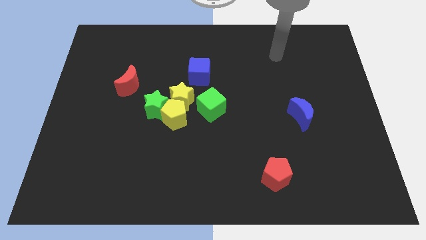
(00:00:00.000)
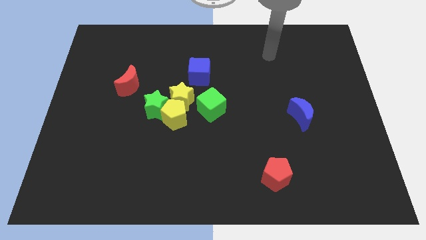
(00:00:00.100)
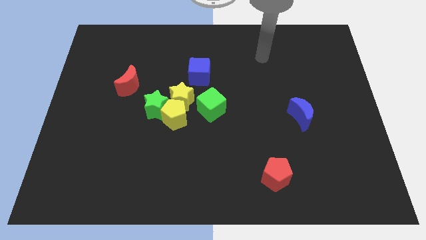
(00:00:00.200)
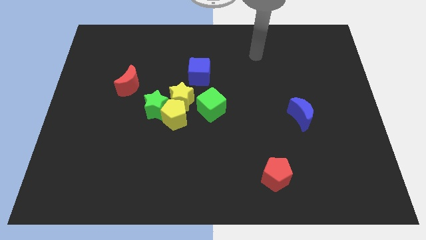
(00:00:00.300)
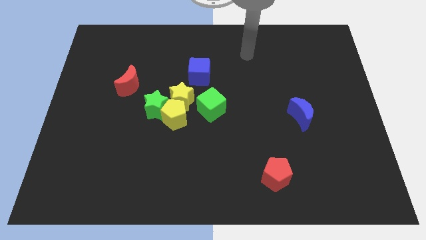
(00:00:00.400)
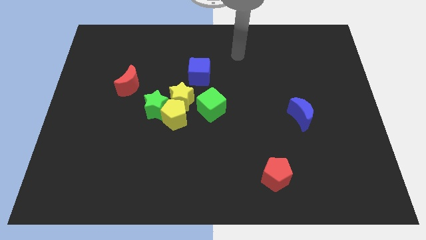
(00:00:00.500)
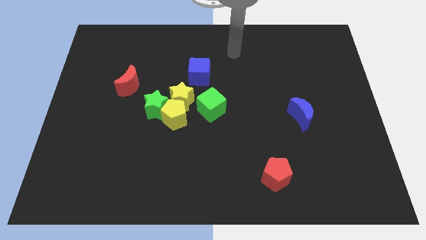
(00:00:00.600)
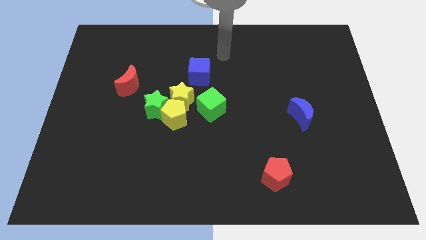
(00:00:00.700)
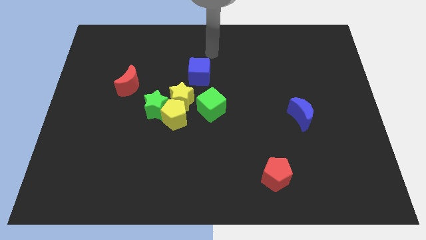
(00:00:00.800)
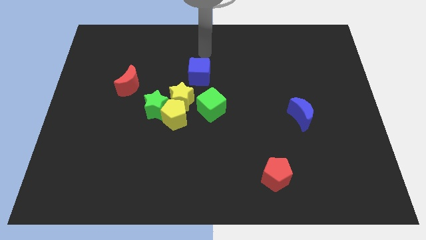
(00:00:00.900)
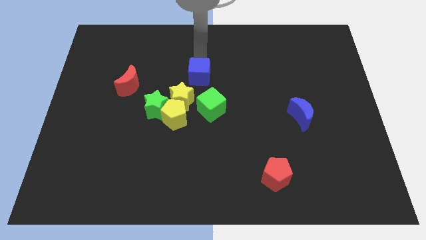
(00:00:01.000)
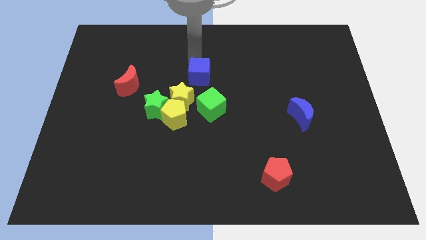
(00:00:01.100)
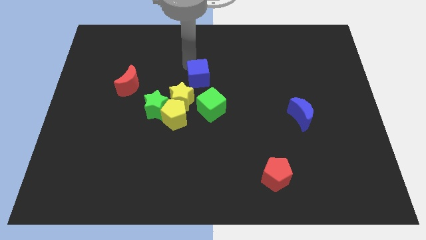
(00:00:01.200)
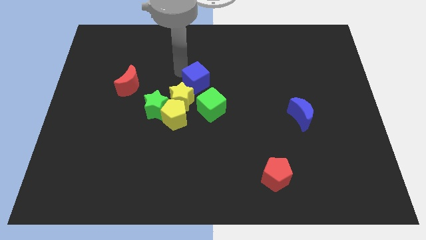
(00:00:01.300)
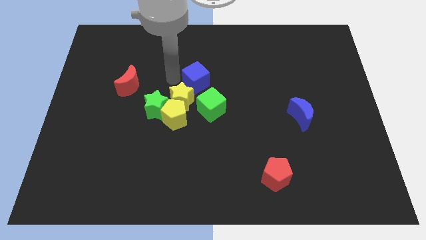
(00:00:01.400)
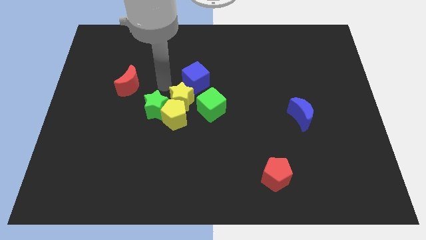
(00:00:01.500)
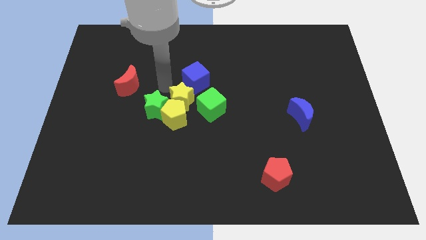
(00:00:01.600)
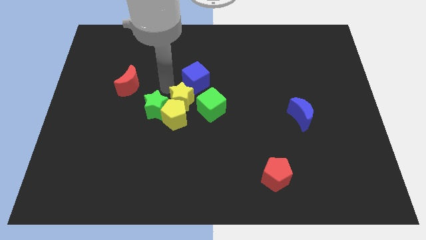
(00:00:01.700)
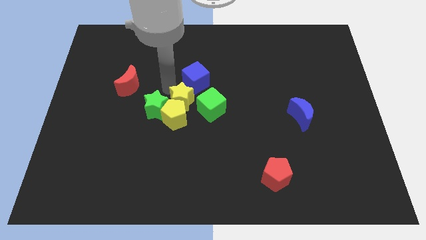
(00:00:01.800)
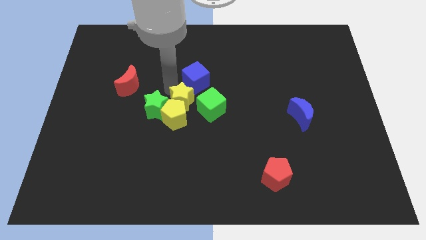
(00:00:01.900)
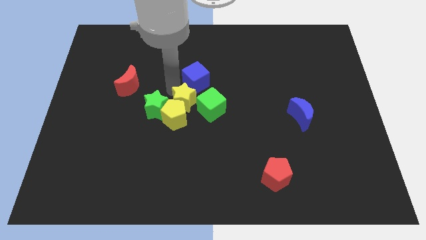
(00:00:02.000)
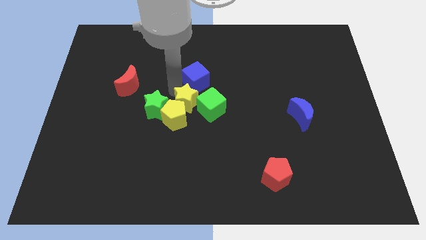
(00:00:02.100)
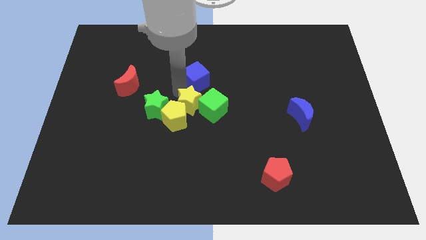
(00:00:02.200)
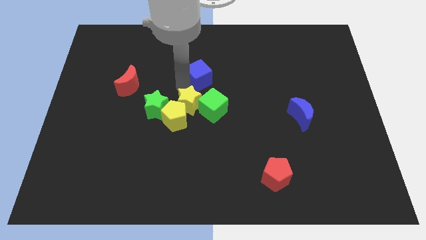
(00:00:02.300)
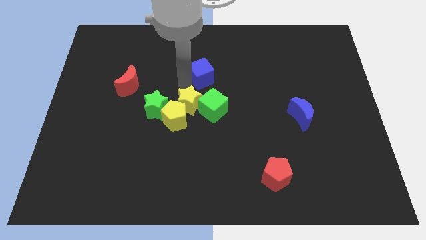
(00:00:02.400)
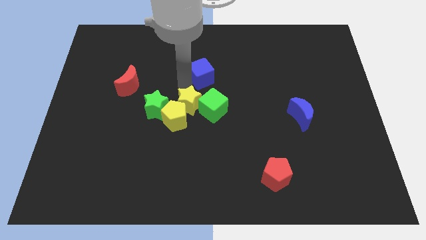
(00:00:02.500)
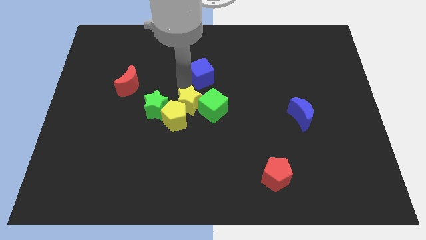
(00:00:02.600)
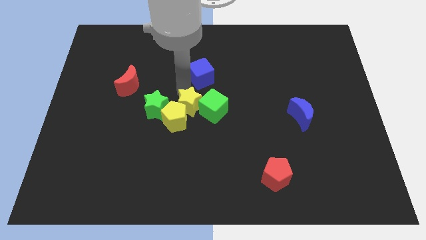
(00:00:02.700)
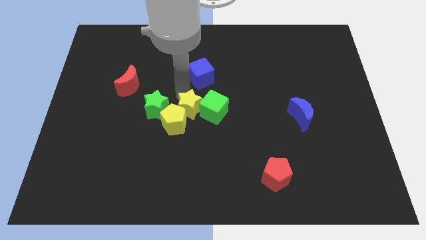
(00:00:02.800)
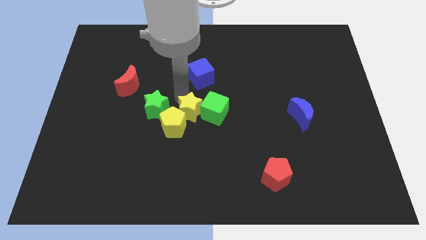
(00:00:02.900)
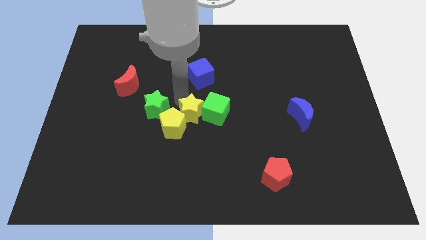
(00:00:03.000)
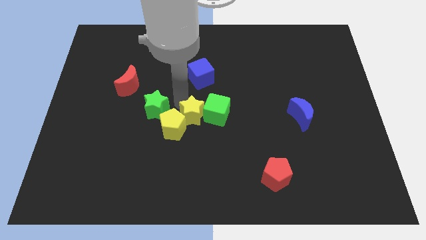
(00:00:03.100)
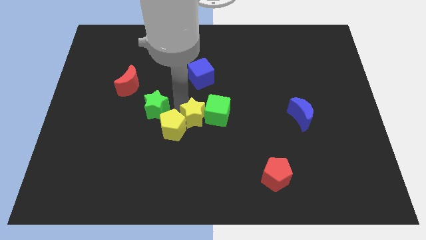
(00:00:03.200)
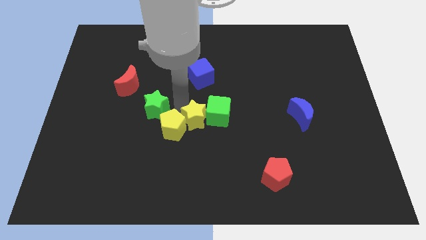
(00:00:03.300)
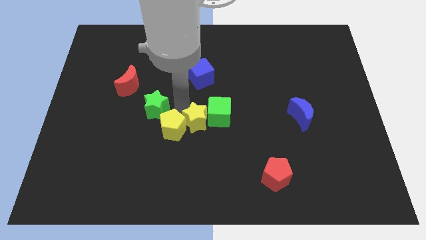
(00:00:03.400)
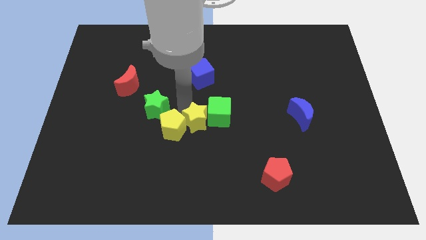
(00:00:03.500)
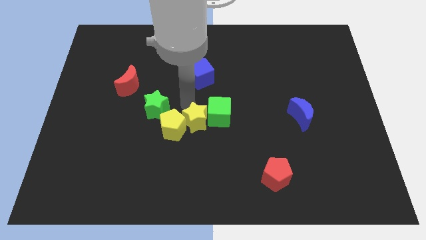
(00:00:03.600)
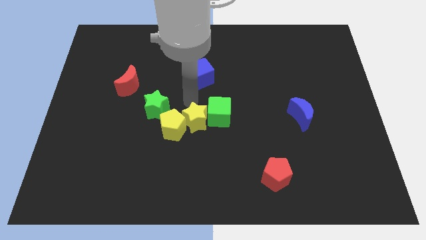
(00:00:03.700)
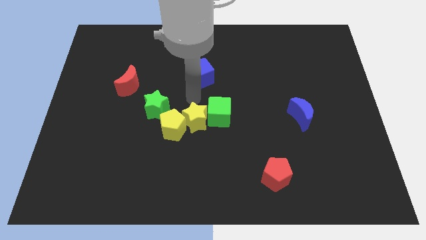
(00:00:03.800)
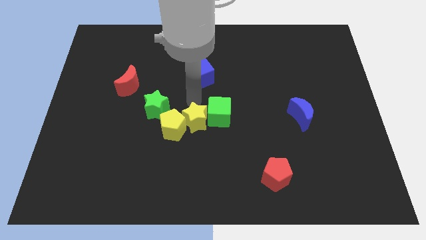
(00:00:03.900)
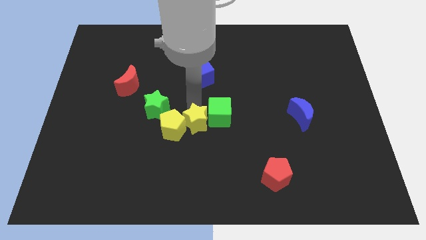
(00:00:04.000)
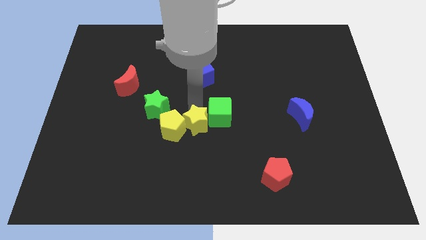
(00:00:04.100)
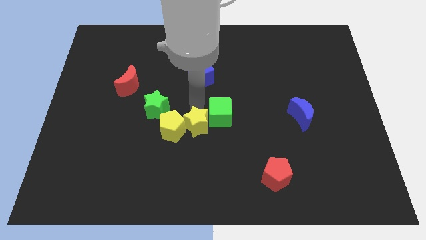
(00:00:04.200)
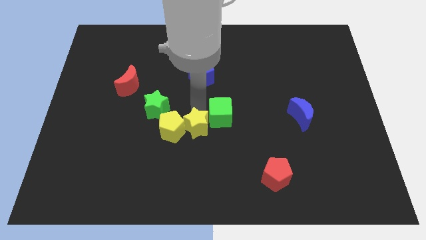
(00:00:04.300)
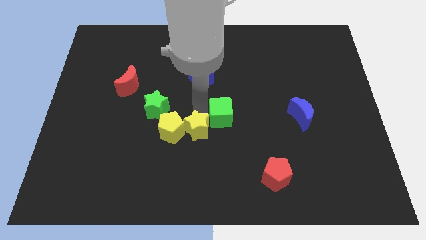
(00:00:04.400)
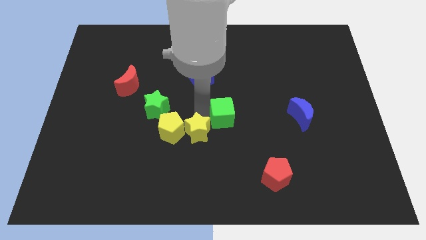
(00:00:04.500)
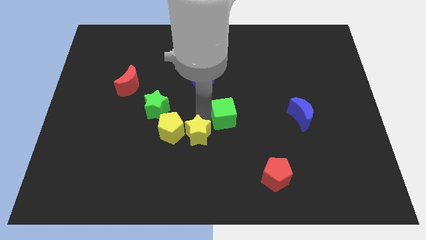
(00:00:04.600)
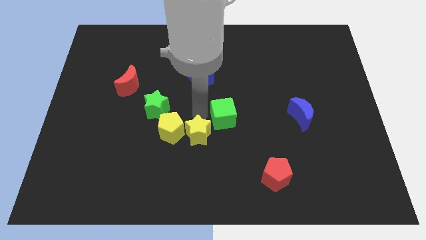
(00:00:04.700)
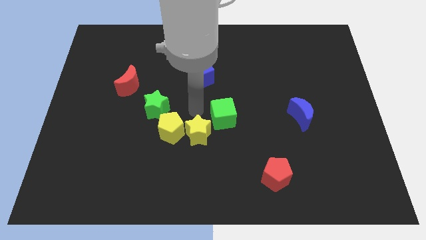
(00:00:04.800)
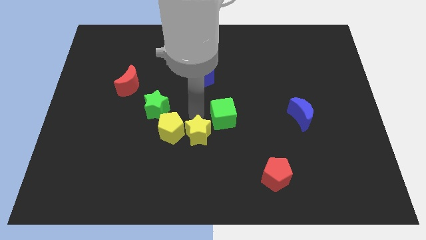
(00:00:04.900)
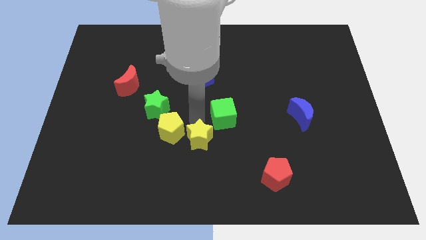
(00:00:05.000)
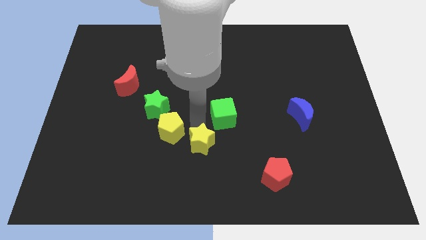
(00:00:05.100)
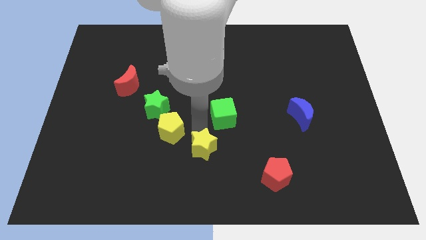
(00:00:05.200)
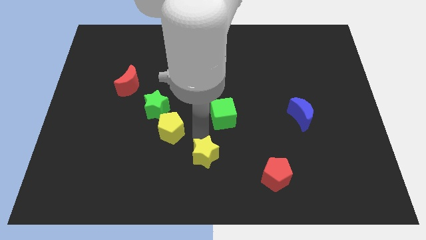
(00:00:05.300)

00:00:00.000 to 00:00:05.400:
slide the yellow star to the bottom

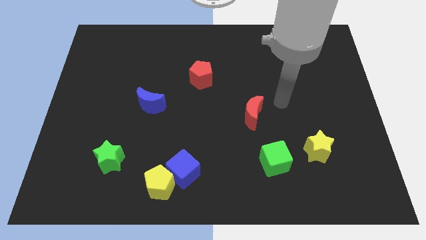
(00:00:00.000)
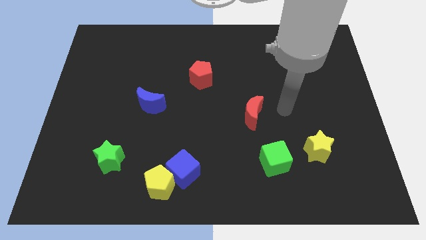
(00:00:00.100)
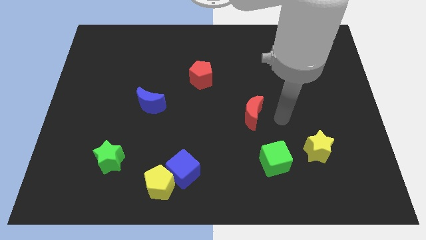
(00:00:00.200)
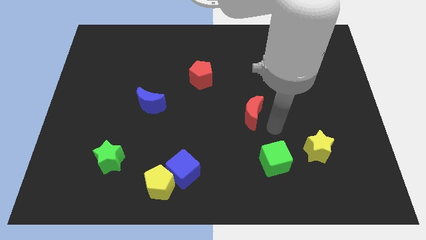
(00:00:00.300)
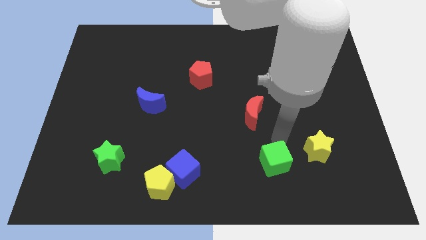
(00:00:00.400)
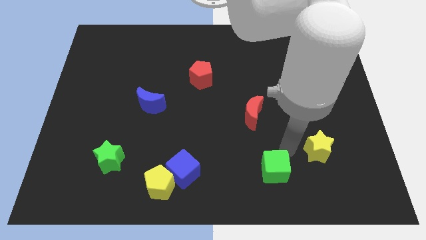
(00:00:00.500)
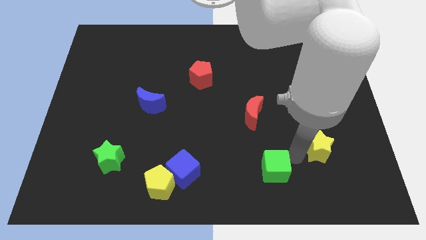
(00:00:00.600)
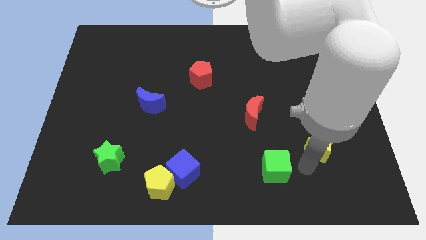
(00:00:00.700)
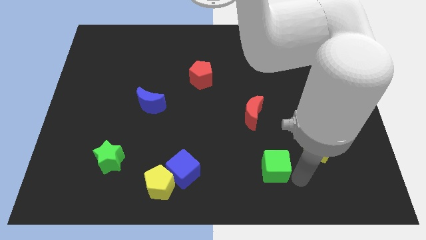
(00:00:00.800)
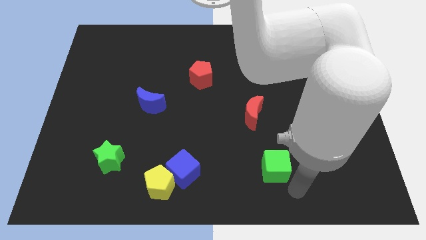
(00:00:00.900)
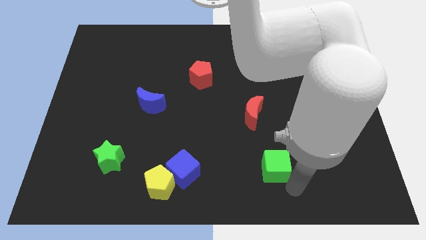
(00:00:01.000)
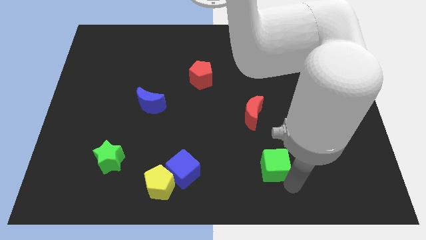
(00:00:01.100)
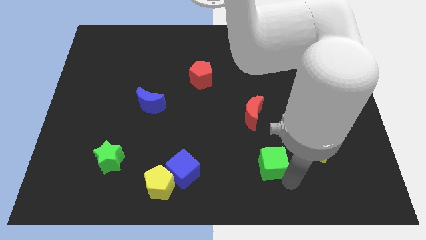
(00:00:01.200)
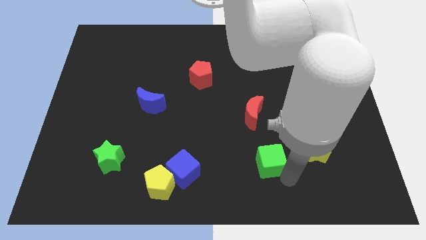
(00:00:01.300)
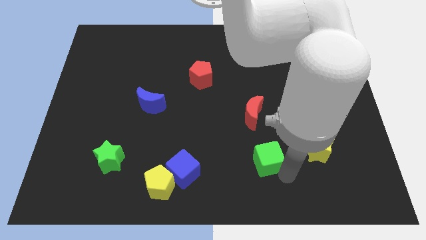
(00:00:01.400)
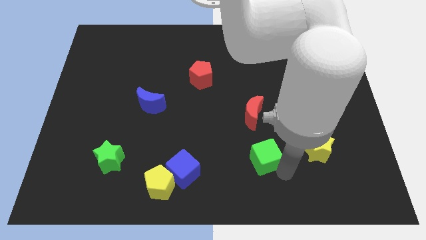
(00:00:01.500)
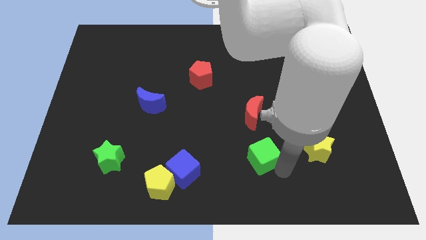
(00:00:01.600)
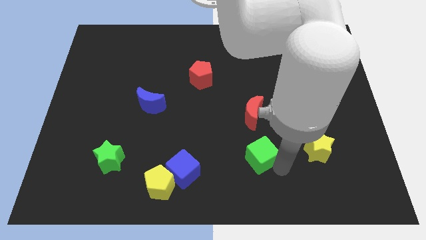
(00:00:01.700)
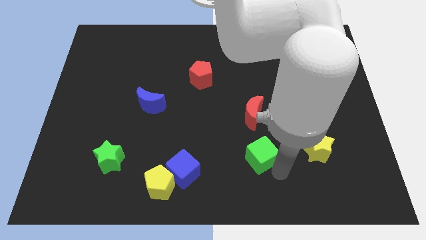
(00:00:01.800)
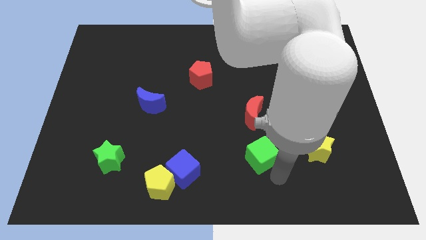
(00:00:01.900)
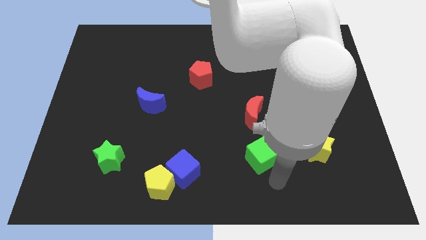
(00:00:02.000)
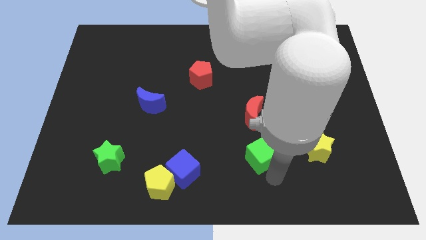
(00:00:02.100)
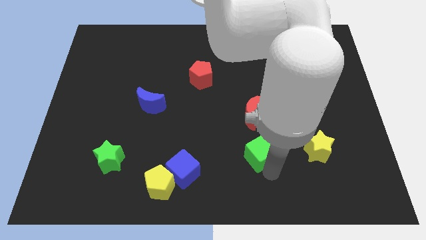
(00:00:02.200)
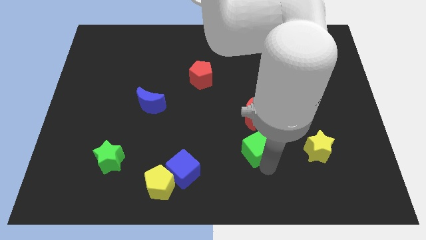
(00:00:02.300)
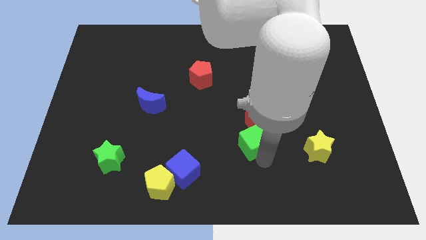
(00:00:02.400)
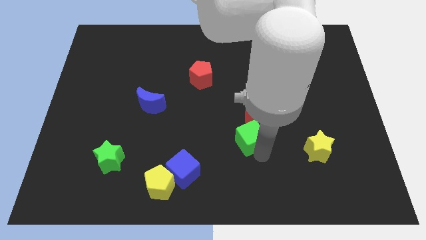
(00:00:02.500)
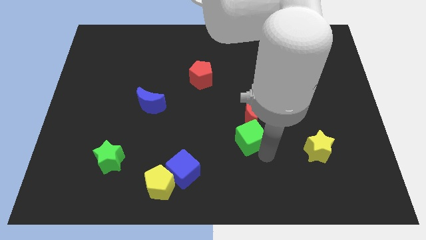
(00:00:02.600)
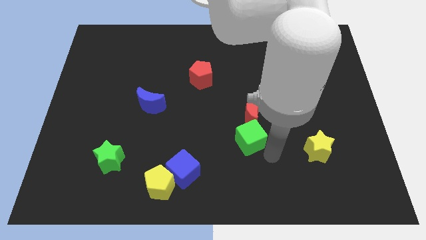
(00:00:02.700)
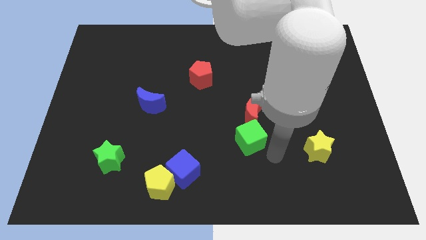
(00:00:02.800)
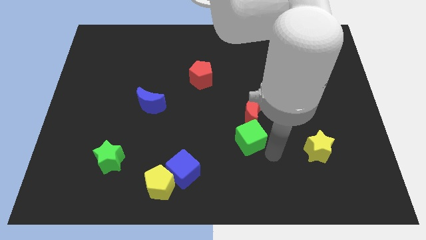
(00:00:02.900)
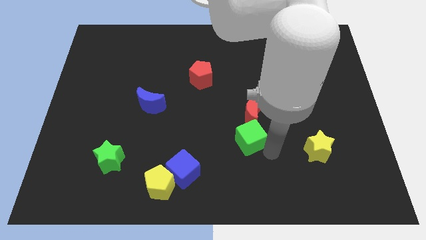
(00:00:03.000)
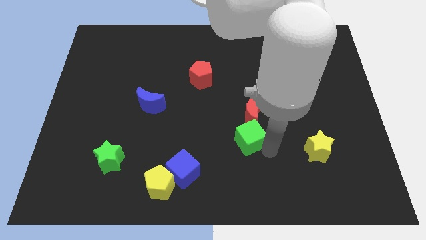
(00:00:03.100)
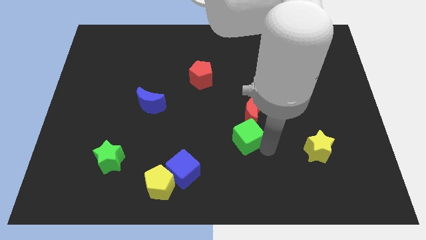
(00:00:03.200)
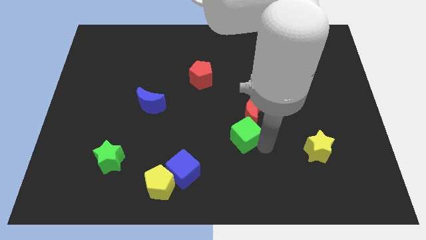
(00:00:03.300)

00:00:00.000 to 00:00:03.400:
slide the green cube to the center
